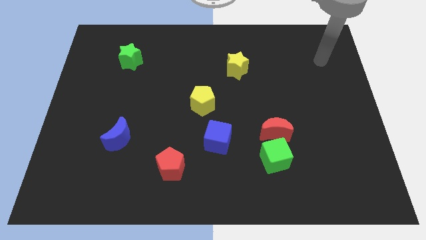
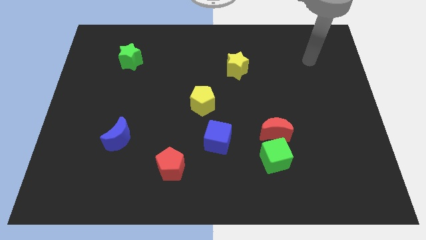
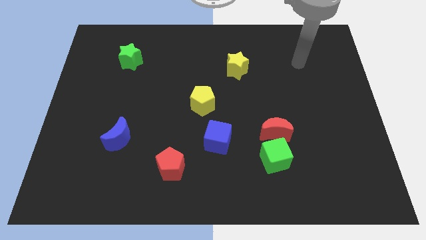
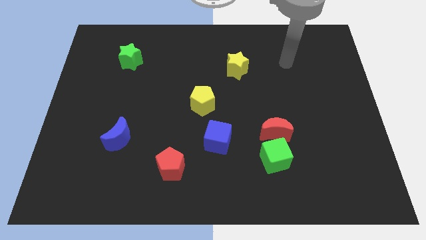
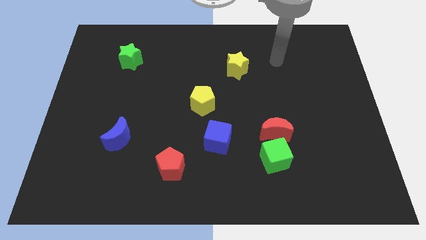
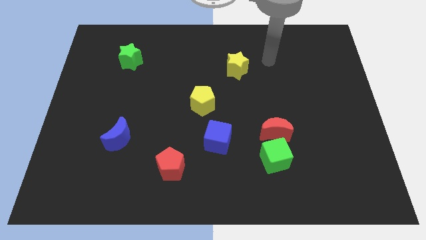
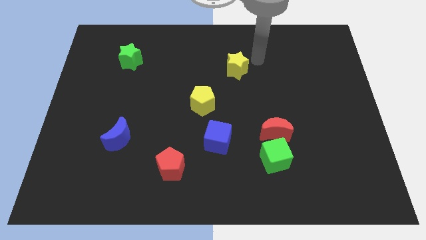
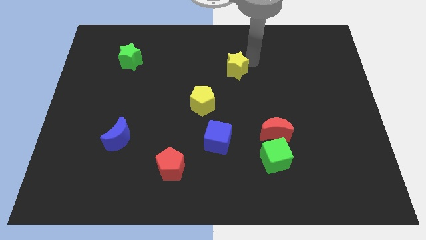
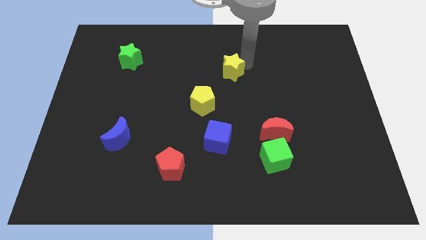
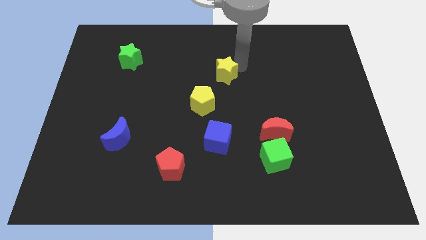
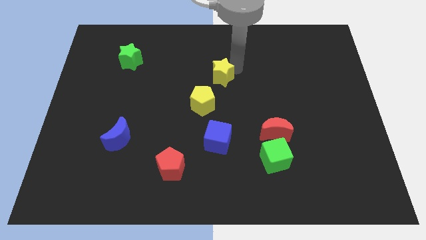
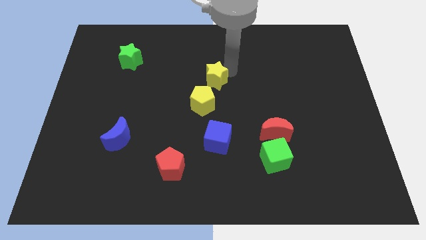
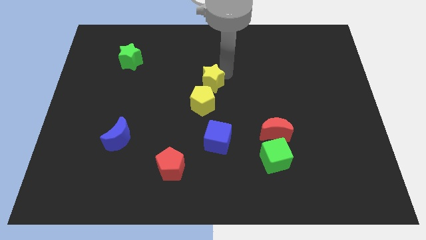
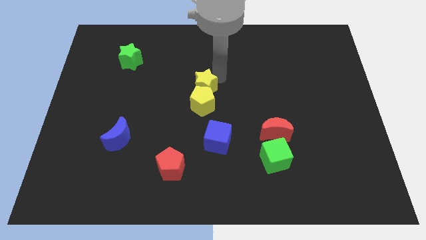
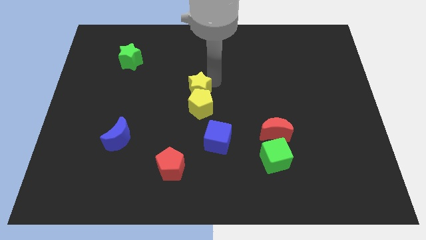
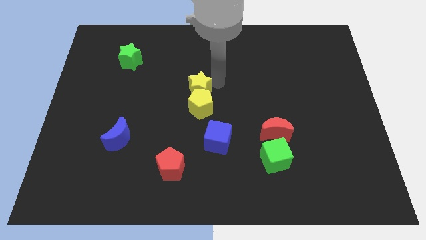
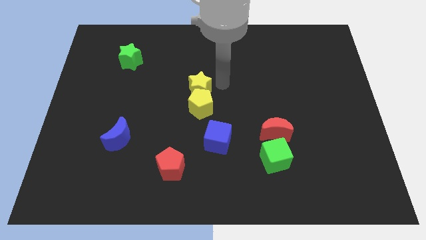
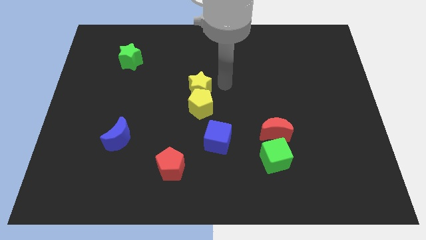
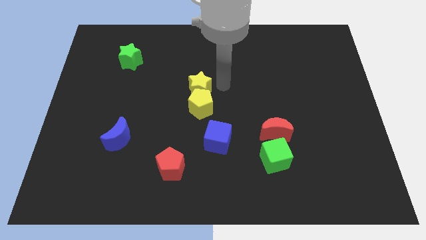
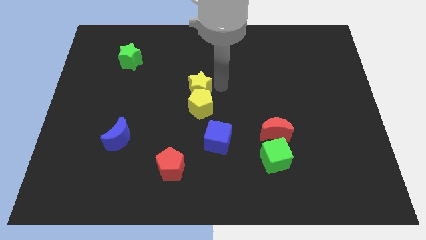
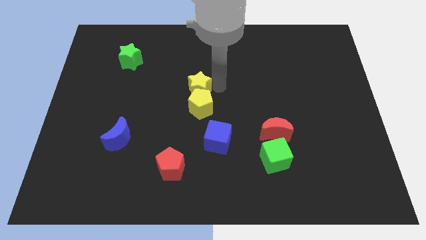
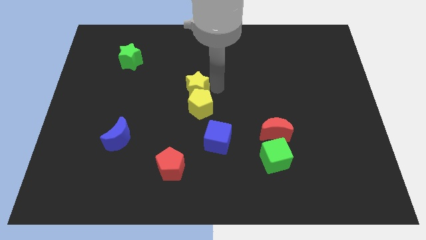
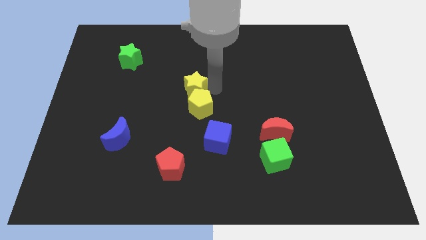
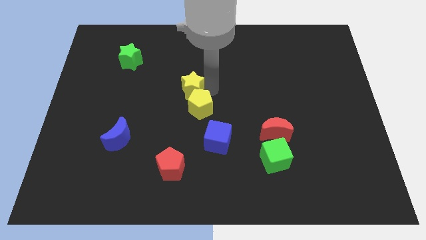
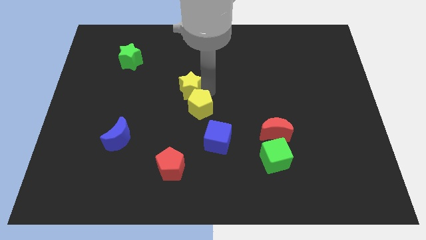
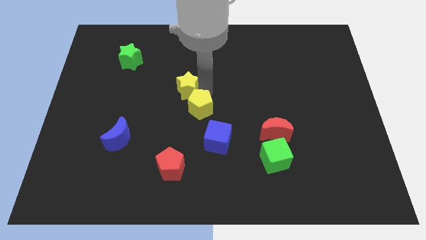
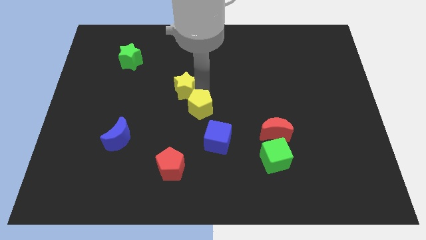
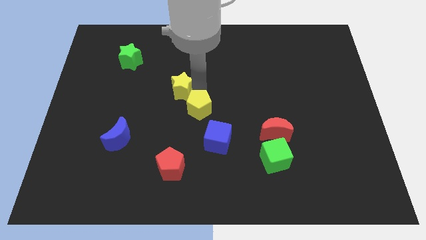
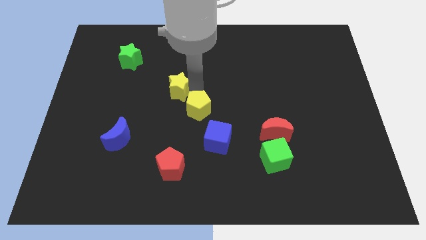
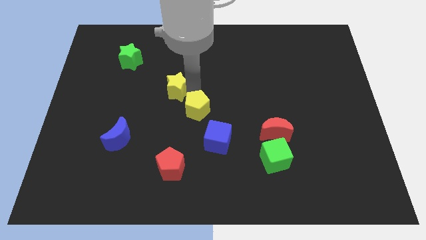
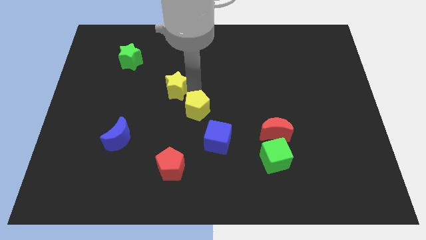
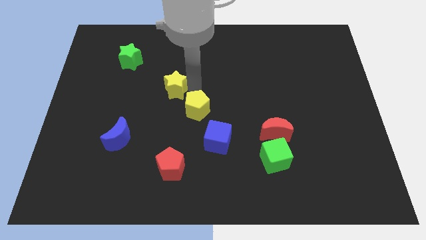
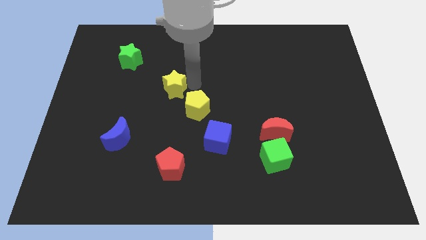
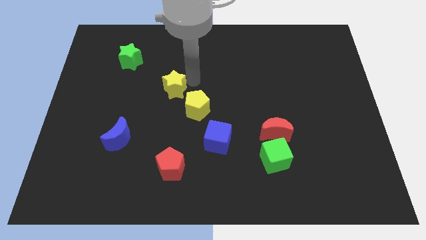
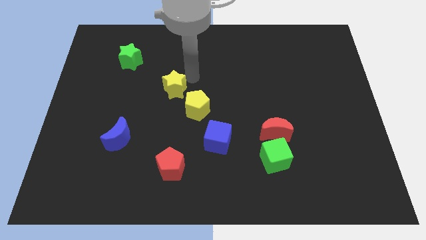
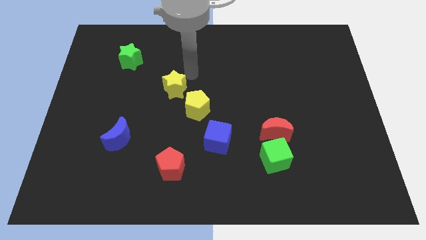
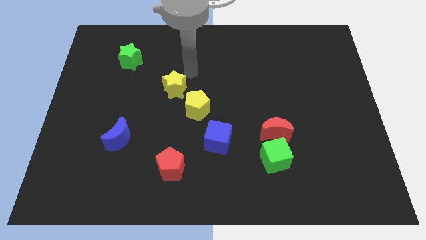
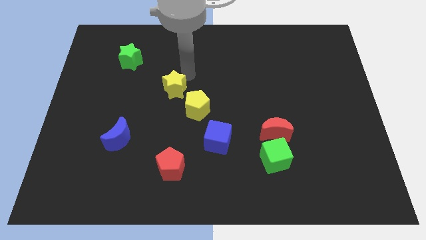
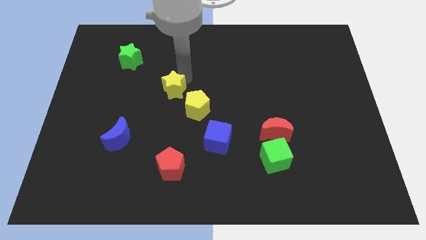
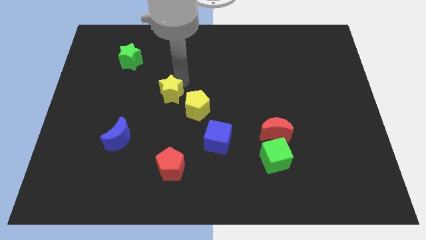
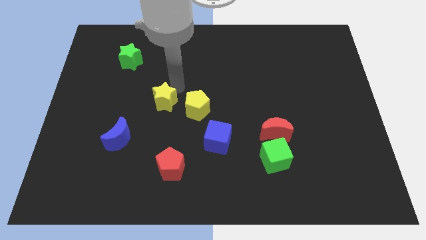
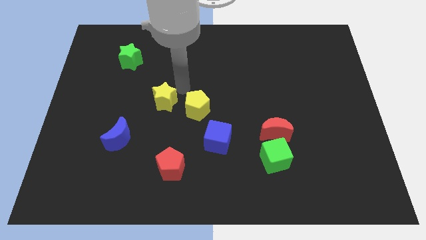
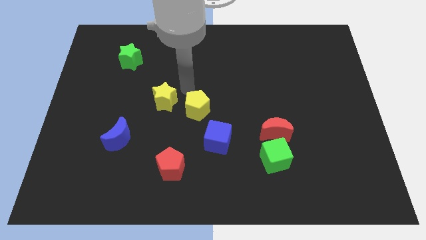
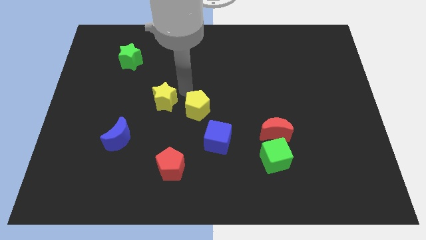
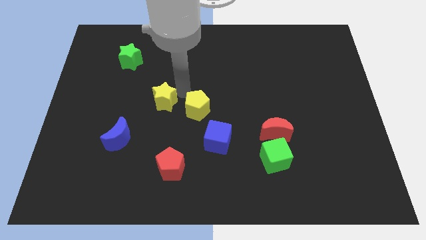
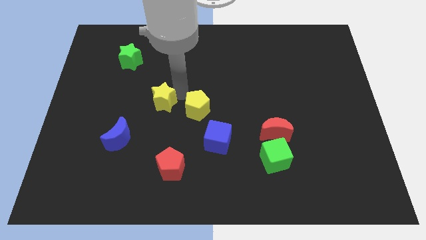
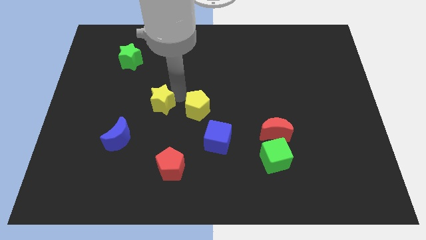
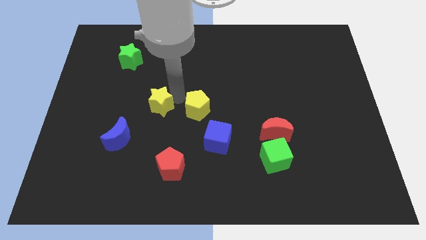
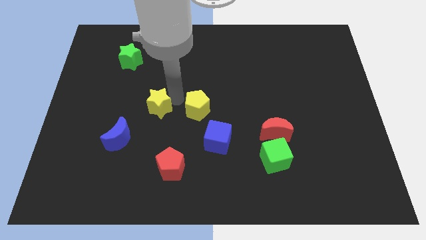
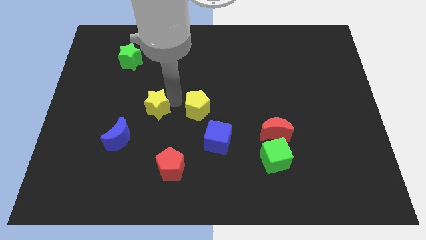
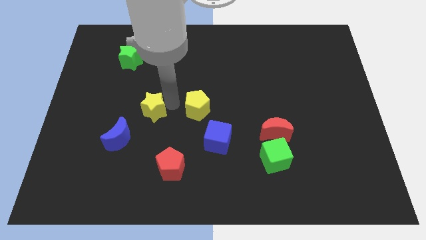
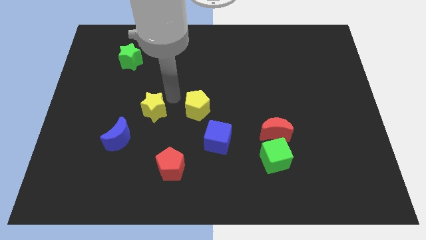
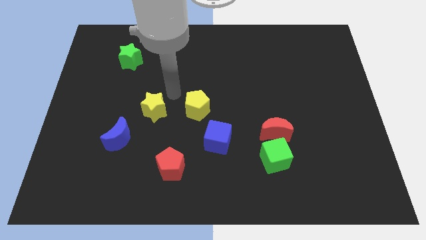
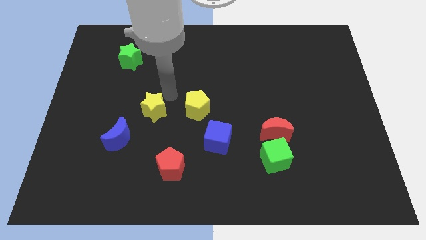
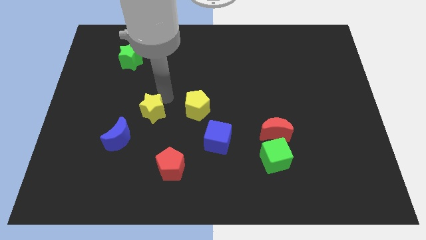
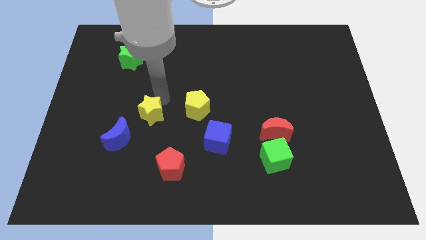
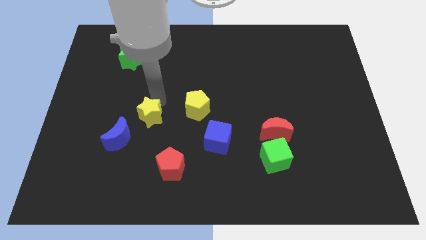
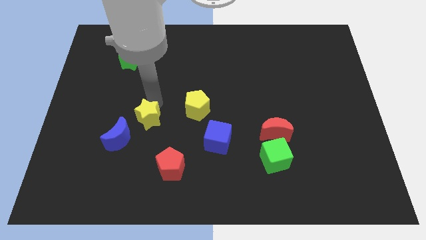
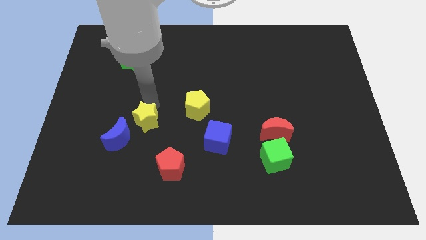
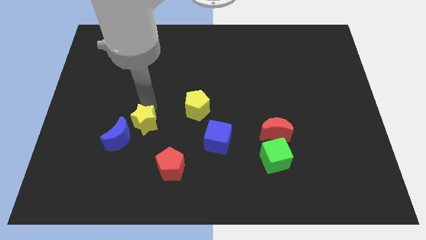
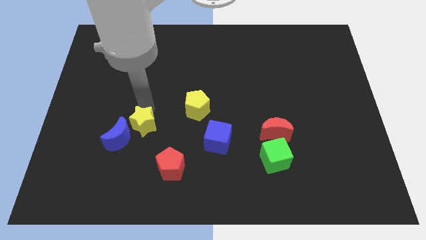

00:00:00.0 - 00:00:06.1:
move the yellow star close to the blue moon

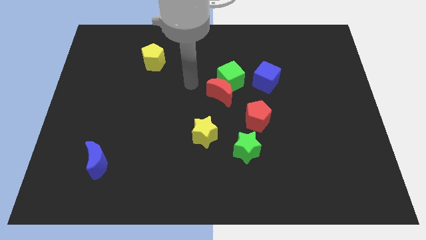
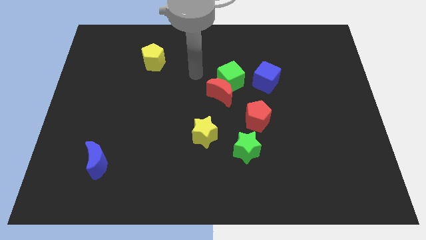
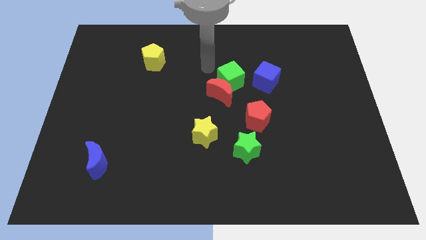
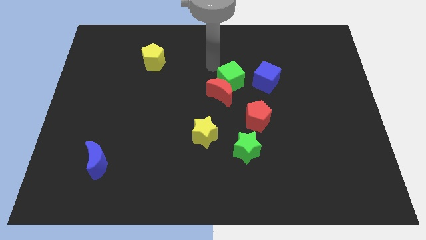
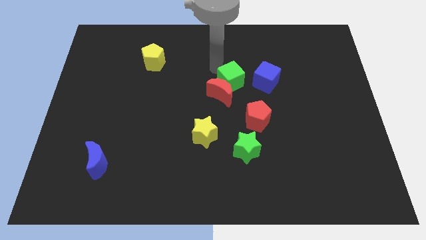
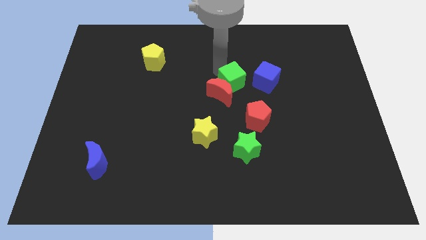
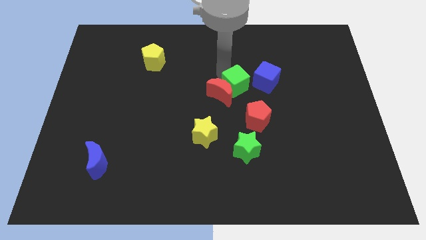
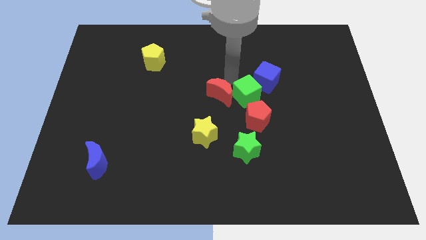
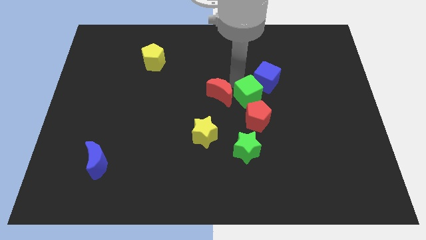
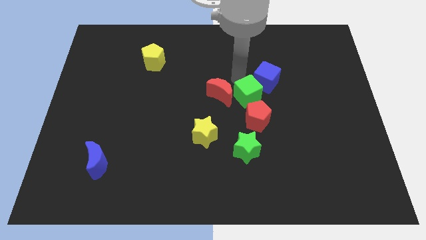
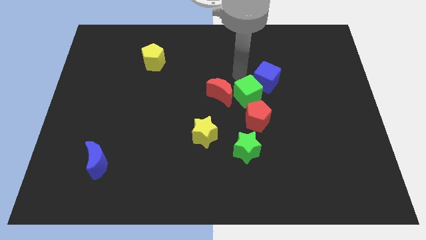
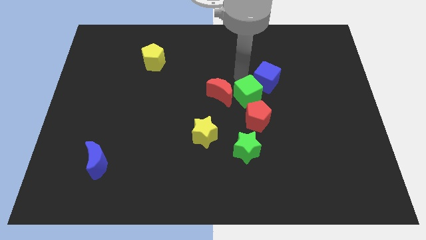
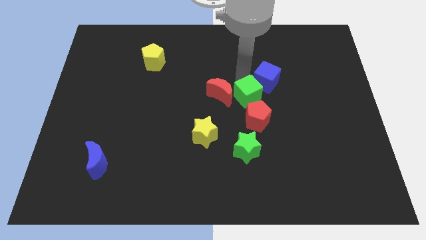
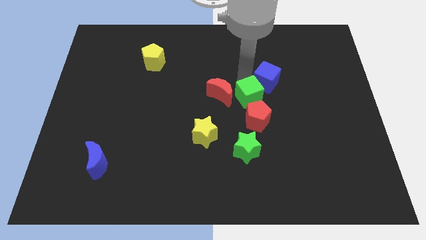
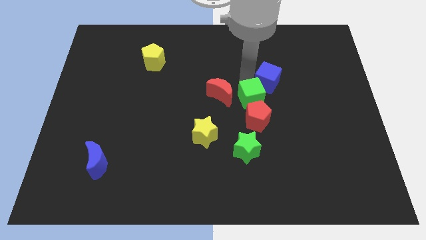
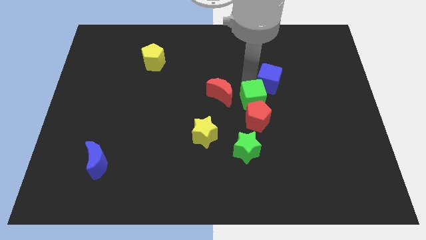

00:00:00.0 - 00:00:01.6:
put the green cube towards the red pentagon

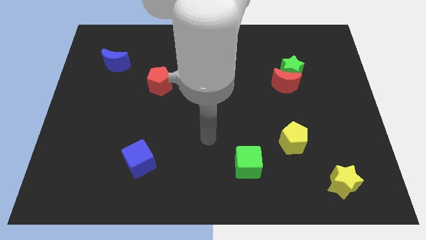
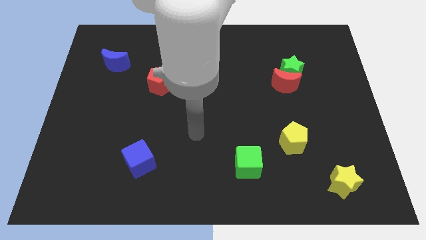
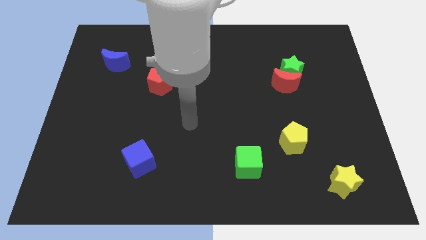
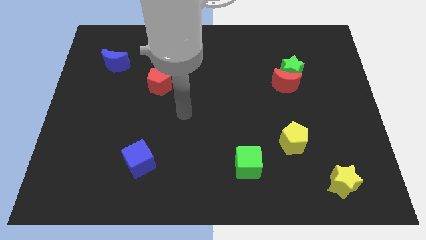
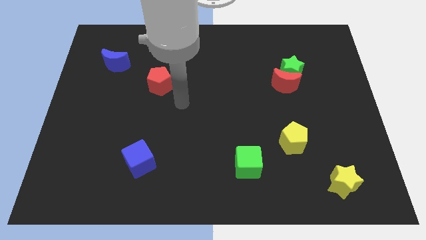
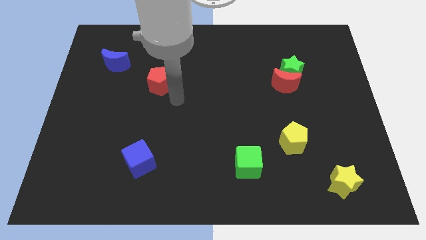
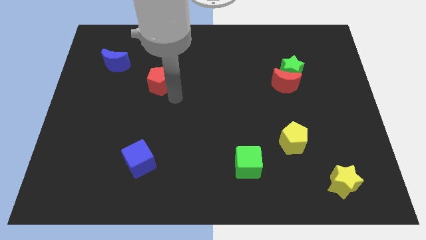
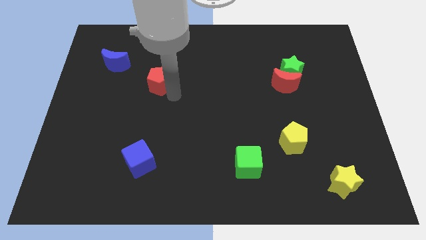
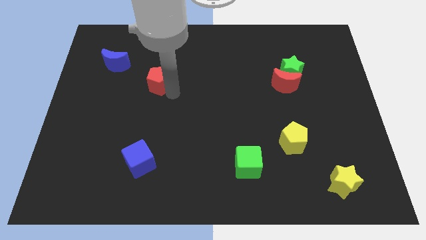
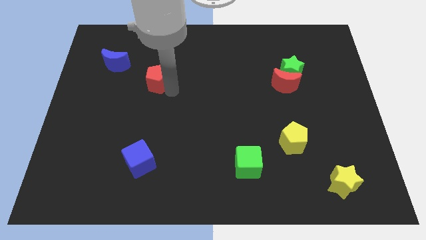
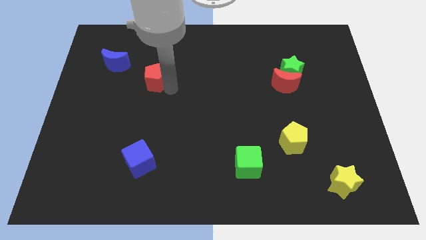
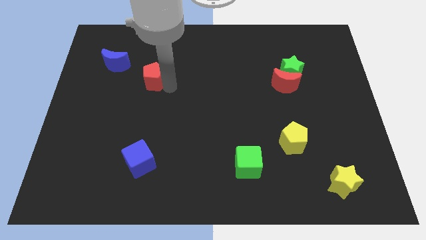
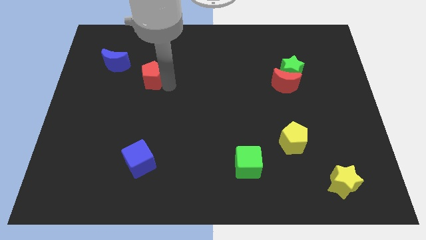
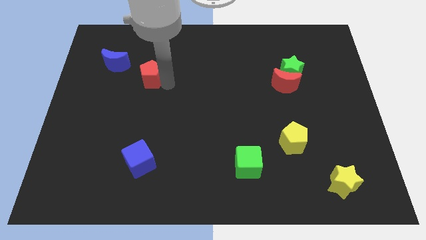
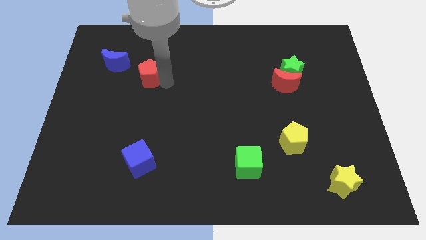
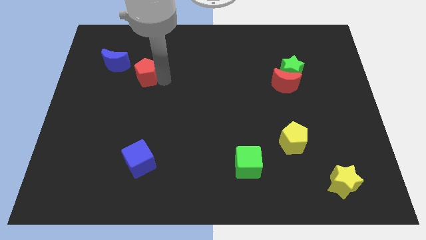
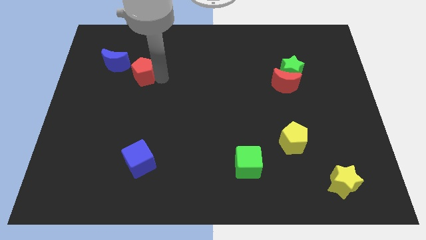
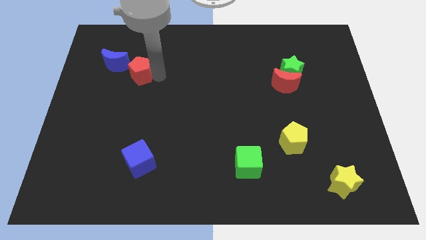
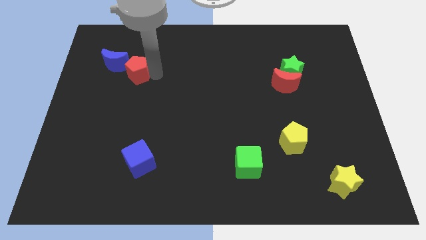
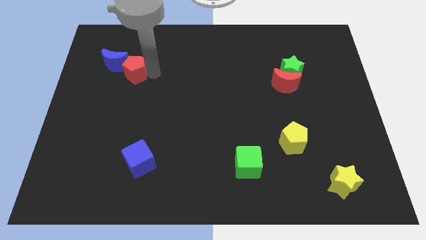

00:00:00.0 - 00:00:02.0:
push the red pentagon to the blue moon
